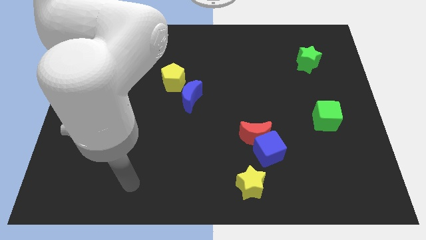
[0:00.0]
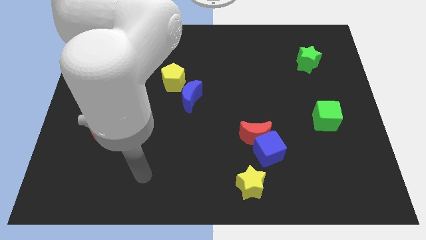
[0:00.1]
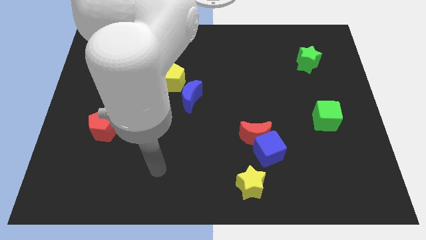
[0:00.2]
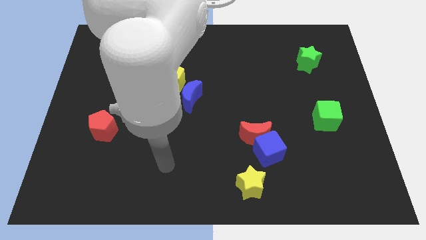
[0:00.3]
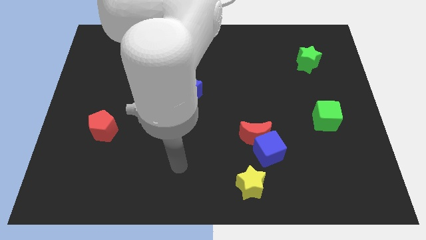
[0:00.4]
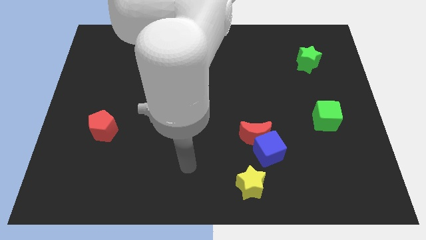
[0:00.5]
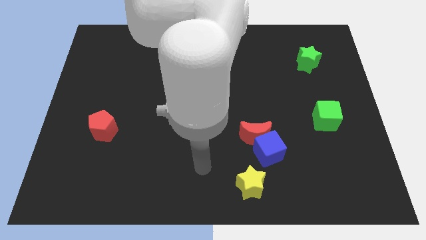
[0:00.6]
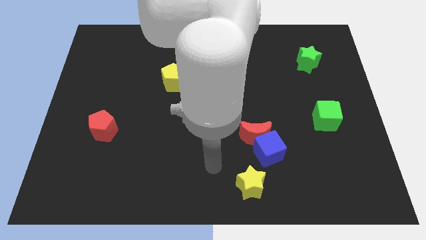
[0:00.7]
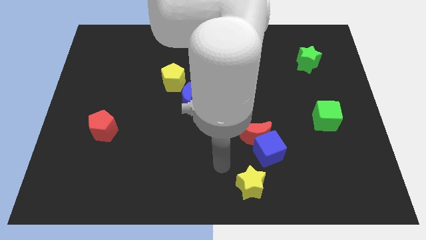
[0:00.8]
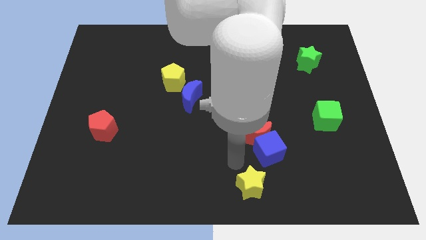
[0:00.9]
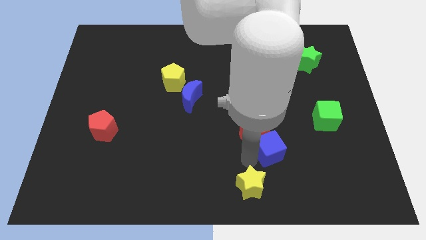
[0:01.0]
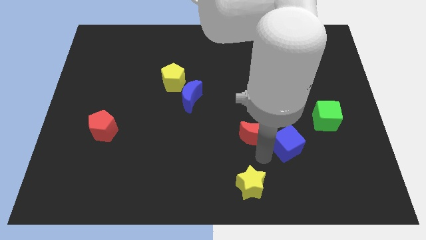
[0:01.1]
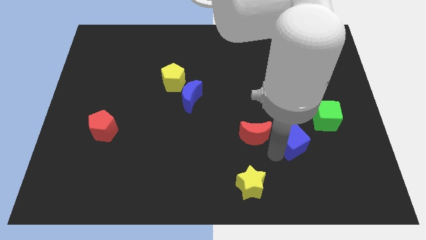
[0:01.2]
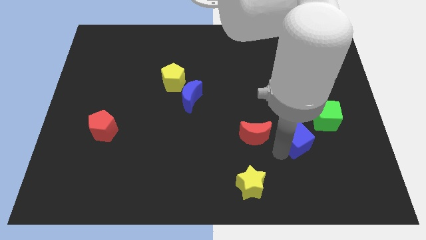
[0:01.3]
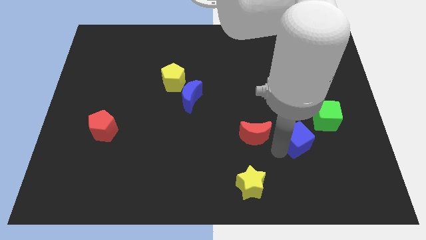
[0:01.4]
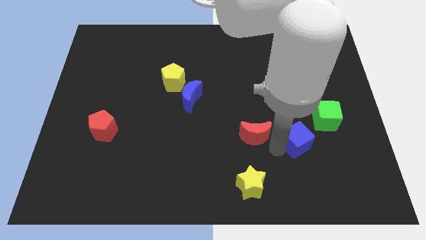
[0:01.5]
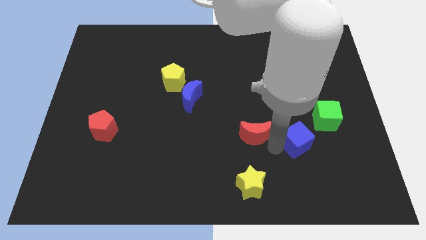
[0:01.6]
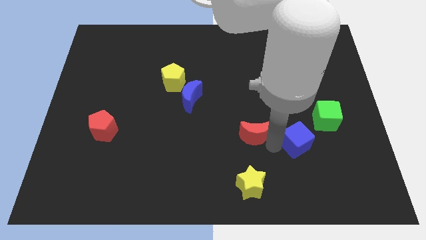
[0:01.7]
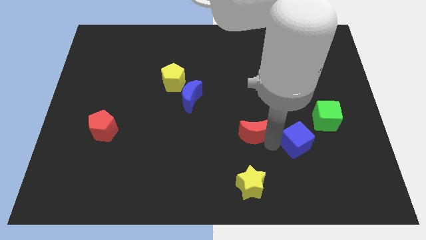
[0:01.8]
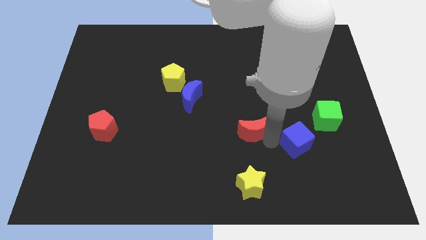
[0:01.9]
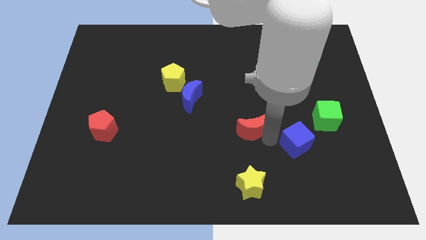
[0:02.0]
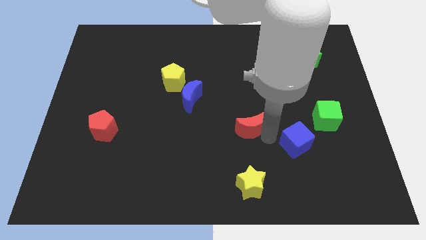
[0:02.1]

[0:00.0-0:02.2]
move the red moon away from the blue cube

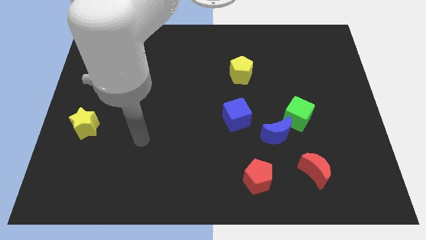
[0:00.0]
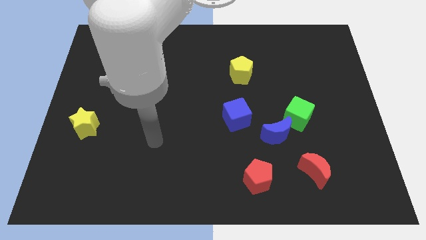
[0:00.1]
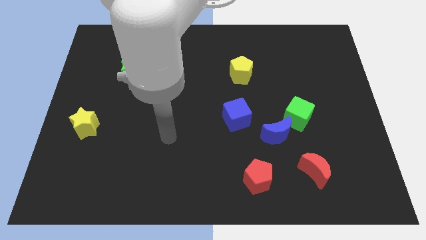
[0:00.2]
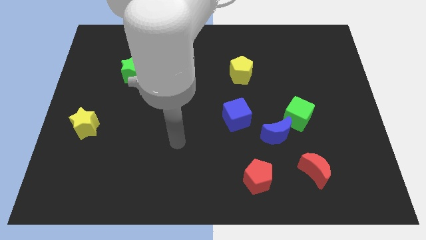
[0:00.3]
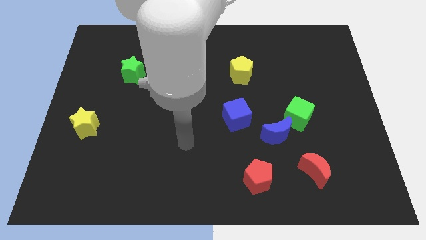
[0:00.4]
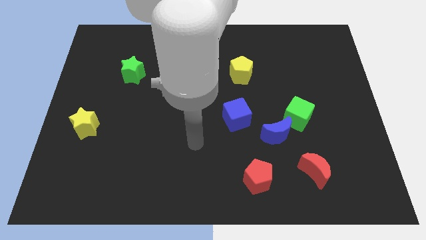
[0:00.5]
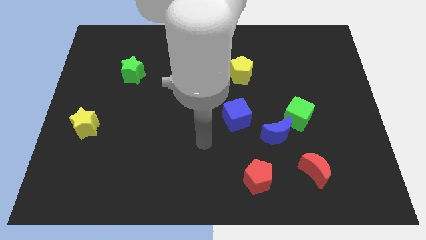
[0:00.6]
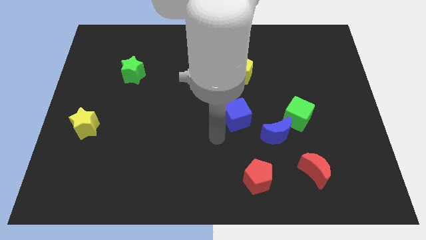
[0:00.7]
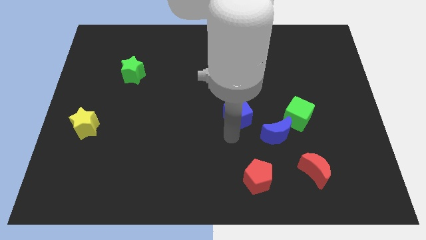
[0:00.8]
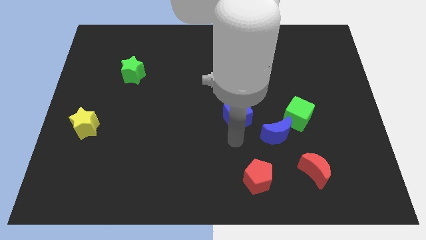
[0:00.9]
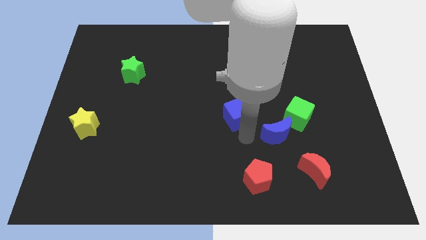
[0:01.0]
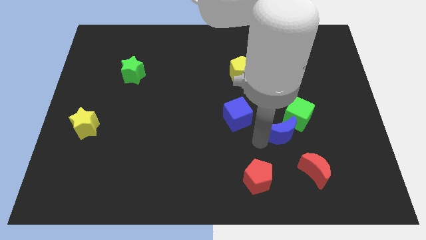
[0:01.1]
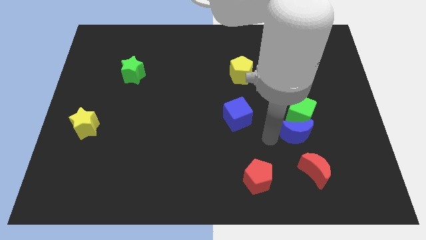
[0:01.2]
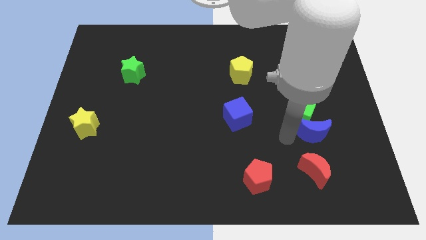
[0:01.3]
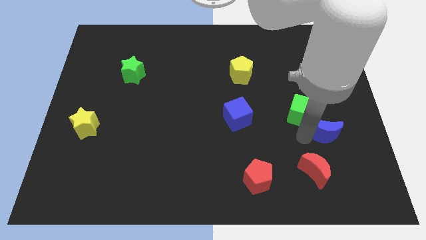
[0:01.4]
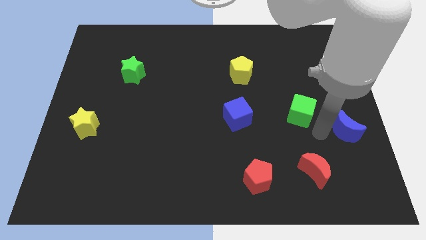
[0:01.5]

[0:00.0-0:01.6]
move the green cube away from the blue moon

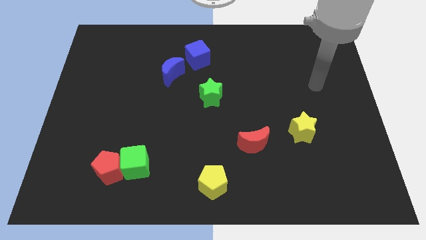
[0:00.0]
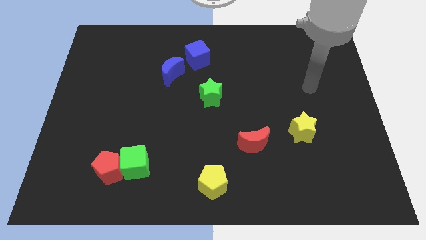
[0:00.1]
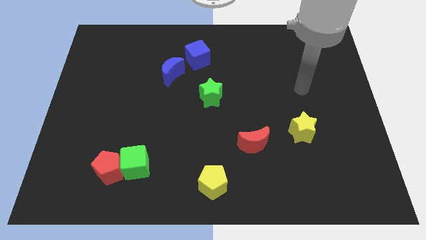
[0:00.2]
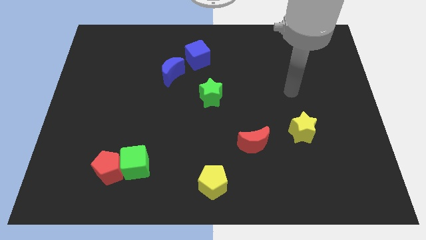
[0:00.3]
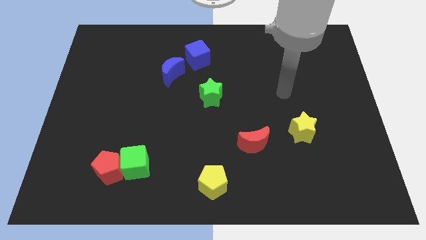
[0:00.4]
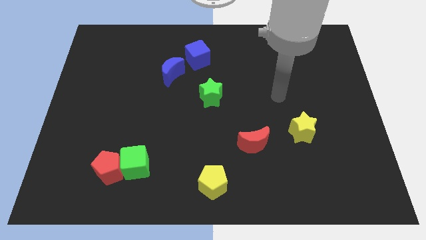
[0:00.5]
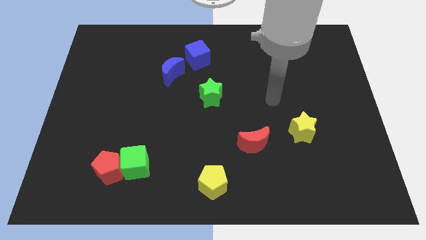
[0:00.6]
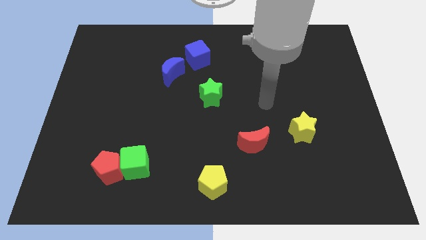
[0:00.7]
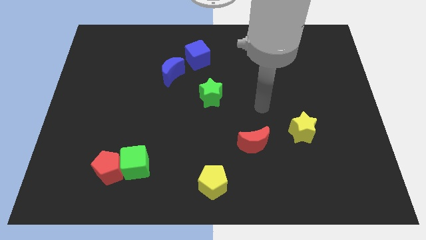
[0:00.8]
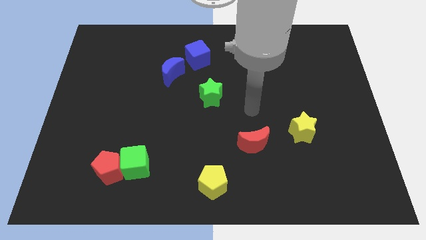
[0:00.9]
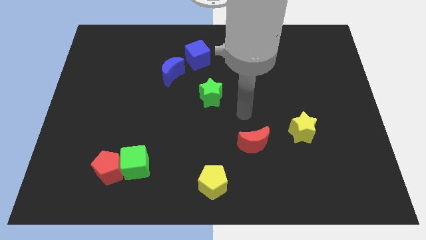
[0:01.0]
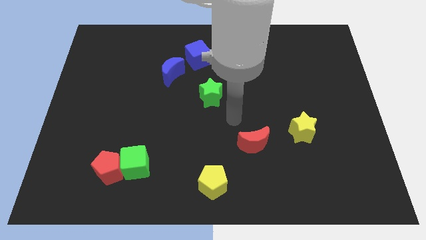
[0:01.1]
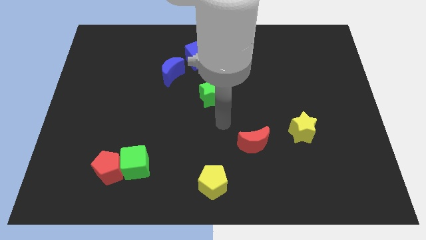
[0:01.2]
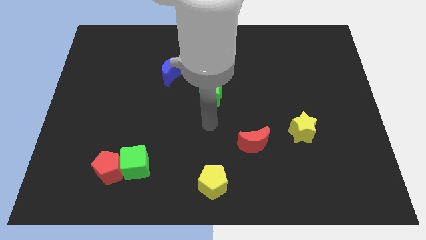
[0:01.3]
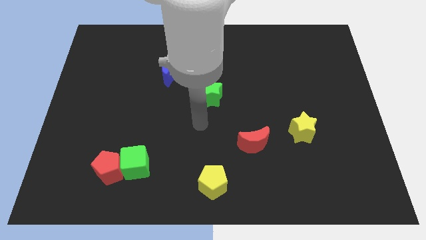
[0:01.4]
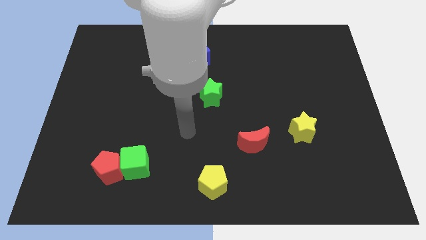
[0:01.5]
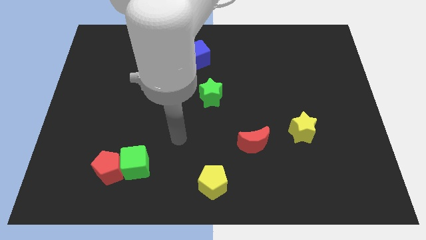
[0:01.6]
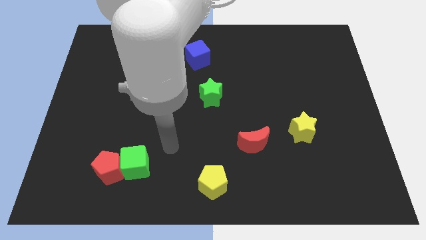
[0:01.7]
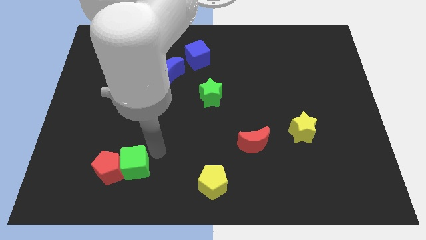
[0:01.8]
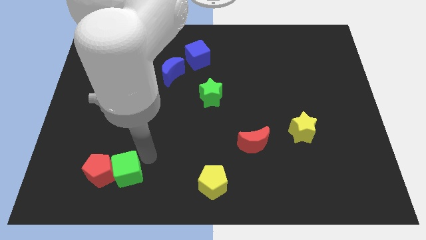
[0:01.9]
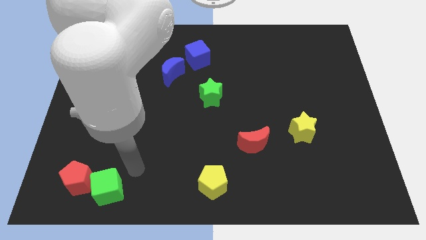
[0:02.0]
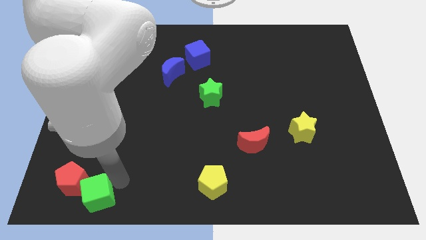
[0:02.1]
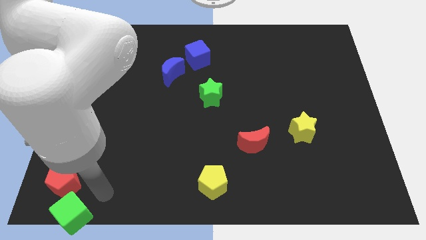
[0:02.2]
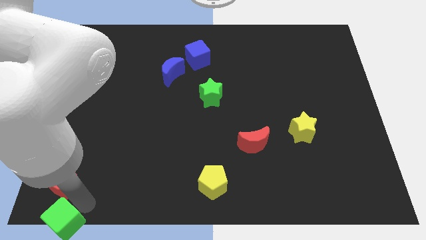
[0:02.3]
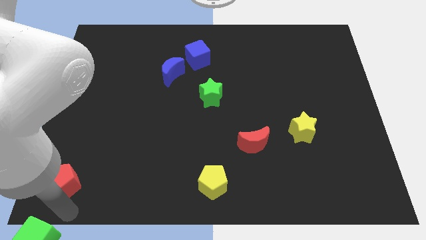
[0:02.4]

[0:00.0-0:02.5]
pull the red pentagon apart from the green cube

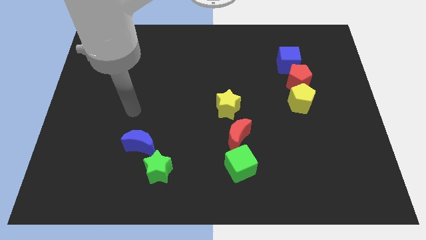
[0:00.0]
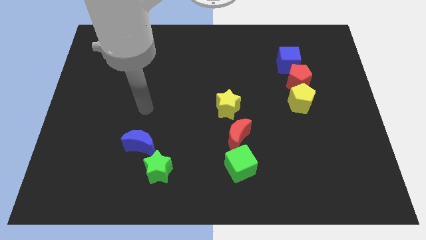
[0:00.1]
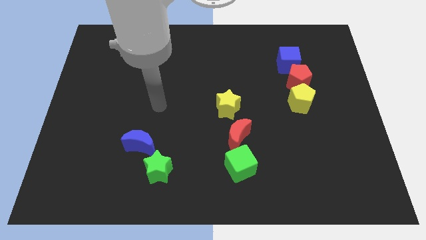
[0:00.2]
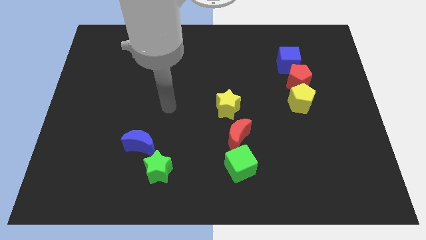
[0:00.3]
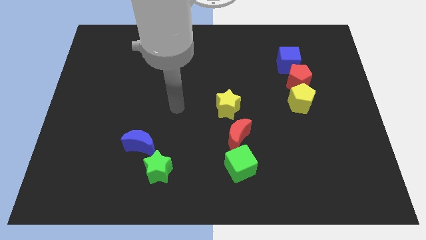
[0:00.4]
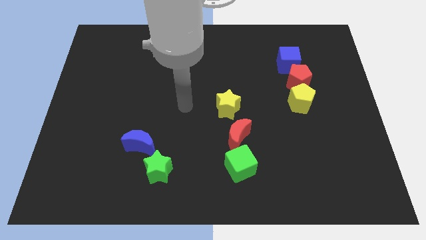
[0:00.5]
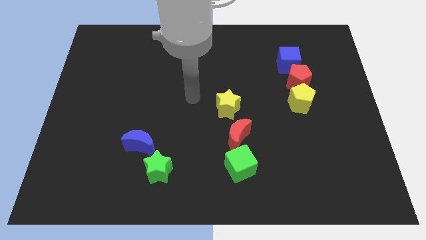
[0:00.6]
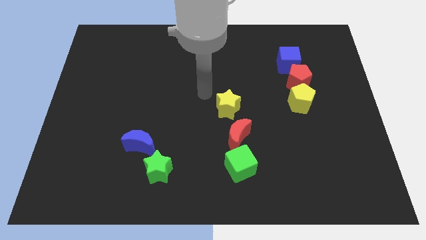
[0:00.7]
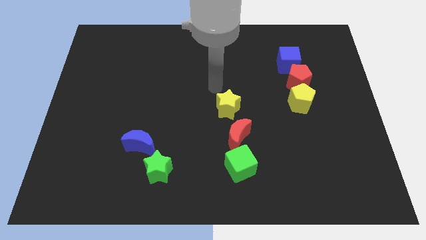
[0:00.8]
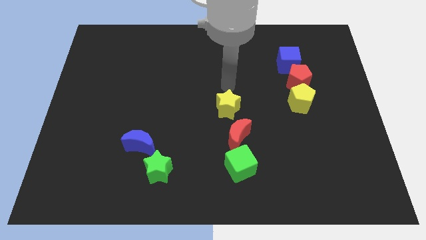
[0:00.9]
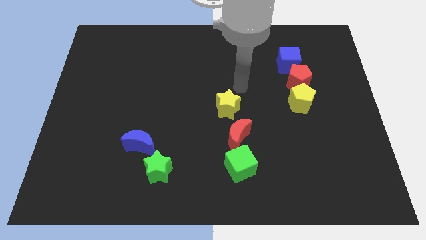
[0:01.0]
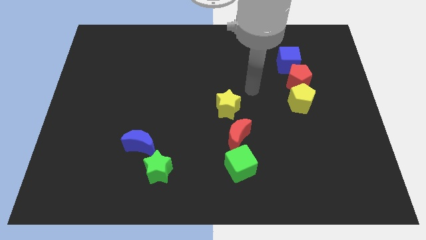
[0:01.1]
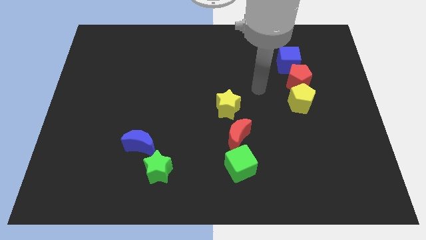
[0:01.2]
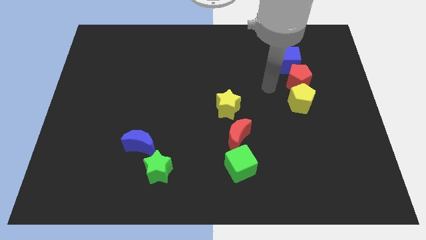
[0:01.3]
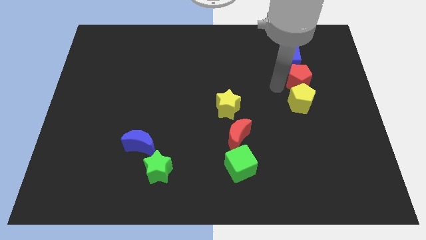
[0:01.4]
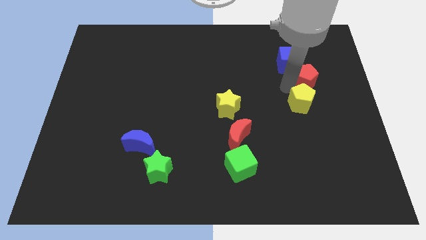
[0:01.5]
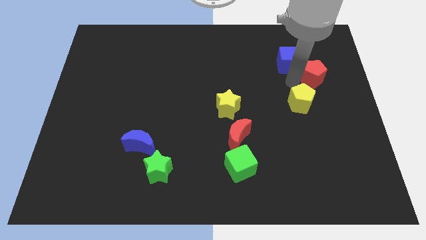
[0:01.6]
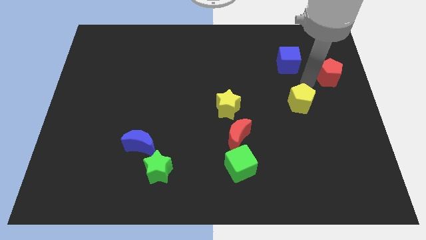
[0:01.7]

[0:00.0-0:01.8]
separate the yellow pentagon from the red pentagon

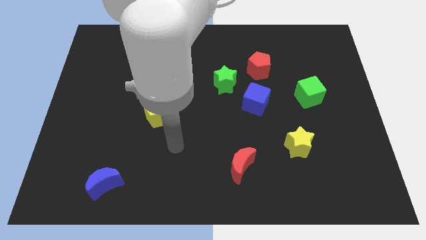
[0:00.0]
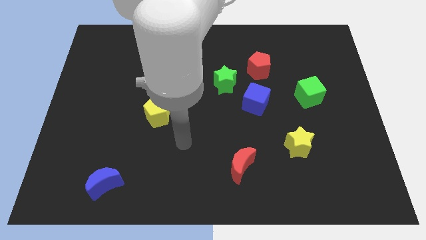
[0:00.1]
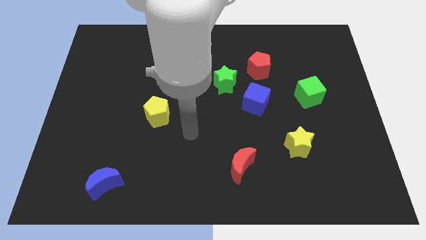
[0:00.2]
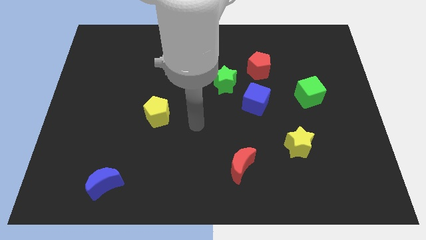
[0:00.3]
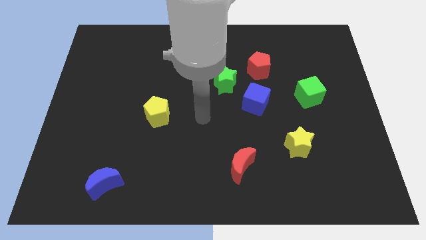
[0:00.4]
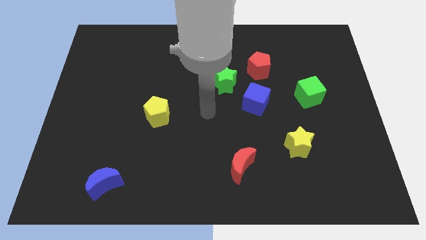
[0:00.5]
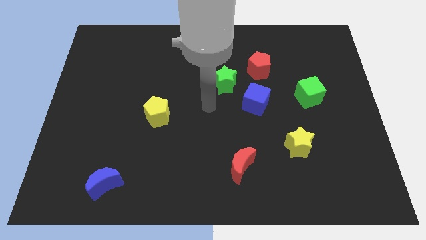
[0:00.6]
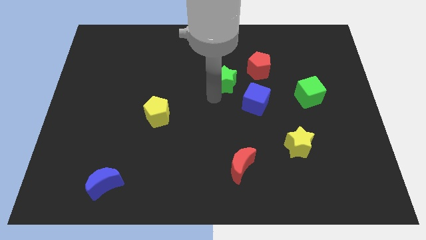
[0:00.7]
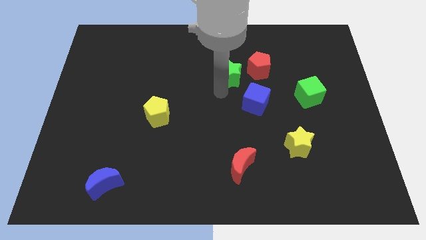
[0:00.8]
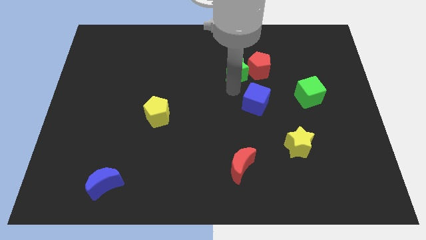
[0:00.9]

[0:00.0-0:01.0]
separate the blue cube from the green star

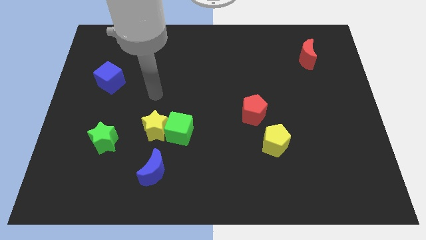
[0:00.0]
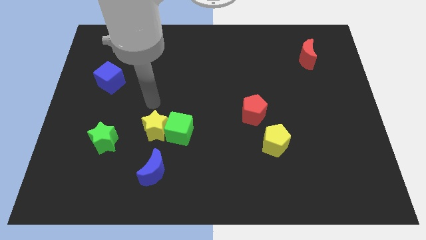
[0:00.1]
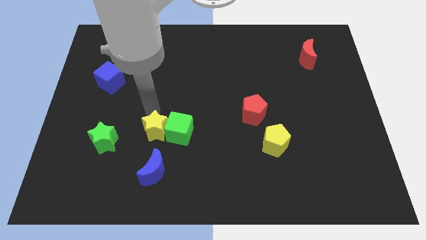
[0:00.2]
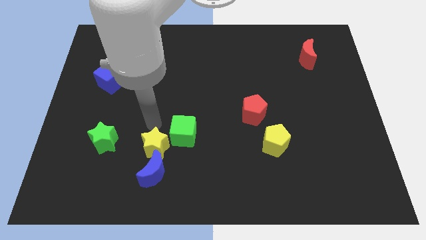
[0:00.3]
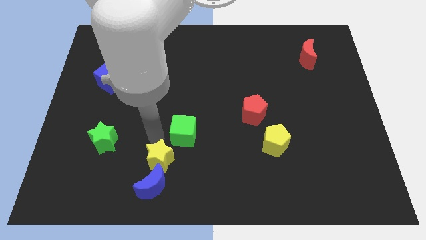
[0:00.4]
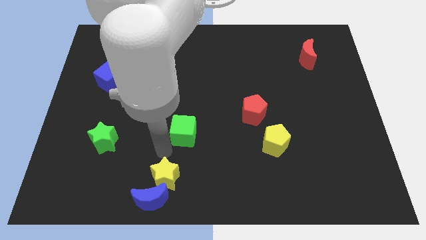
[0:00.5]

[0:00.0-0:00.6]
move the green cube away from the yellow star
